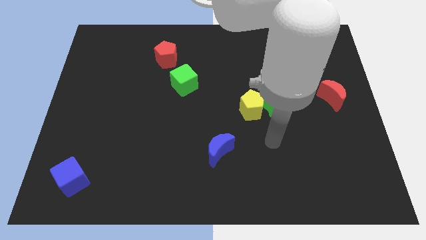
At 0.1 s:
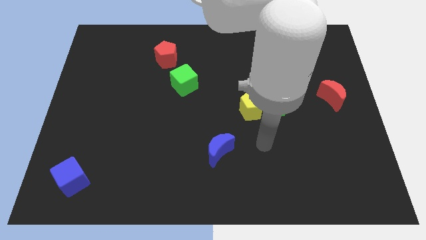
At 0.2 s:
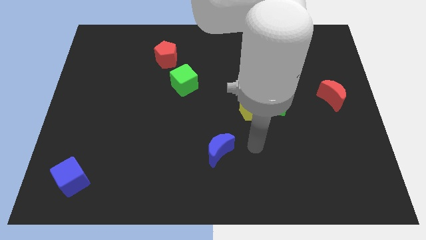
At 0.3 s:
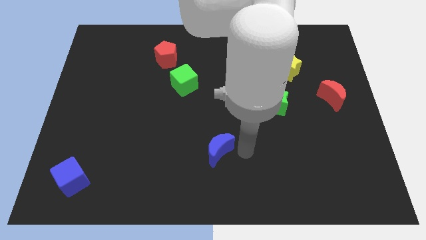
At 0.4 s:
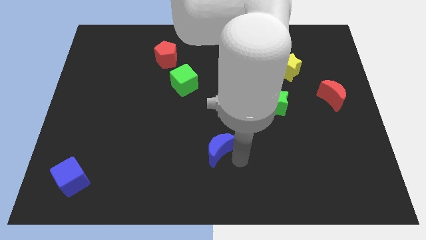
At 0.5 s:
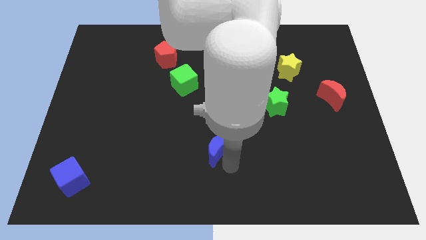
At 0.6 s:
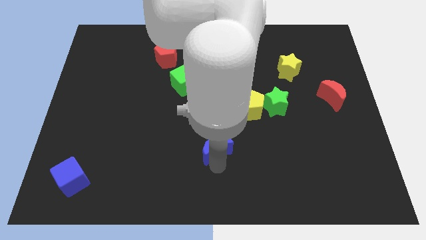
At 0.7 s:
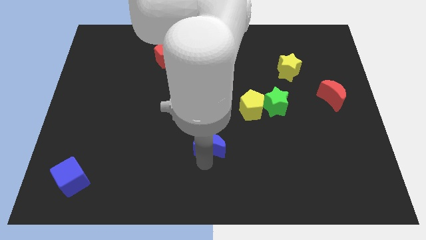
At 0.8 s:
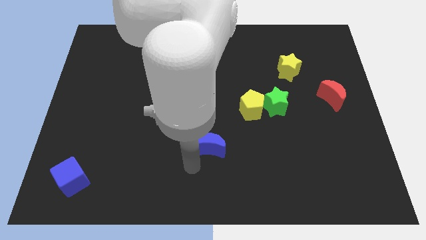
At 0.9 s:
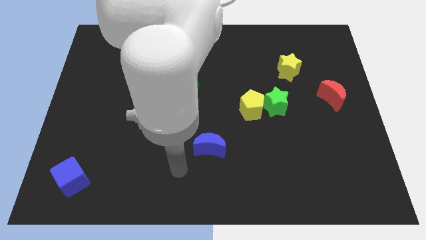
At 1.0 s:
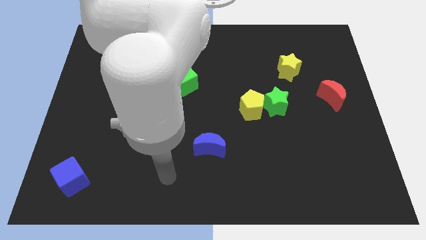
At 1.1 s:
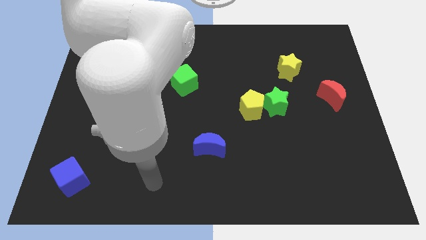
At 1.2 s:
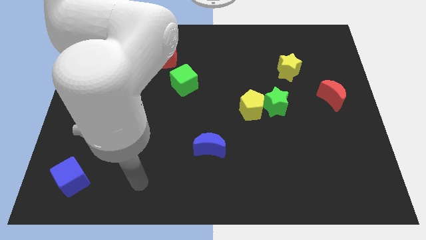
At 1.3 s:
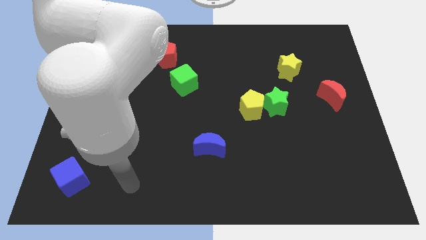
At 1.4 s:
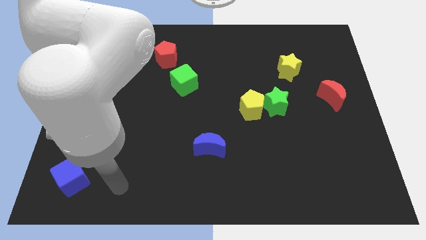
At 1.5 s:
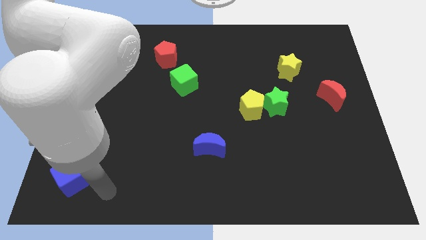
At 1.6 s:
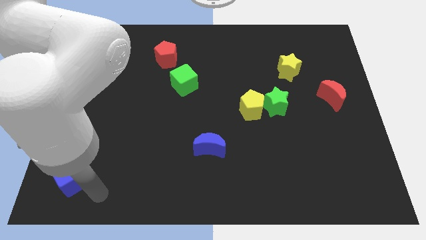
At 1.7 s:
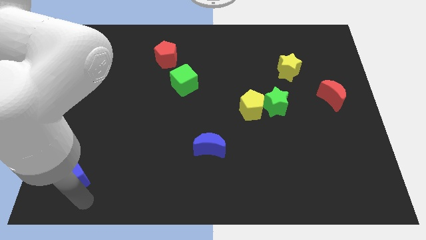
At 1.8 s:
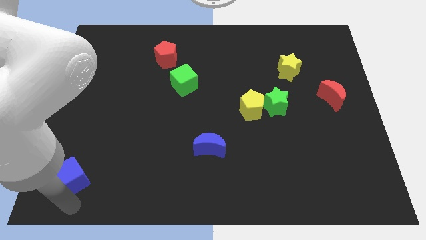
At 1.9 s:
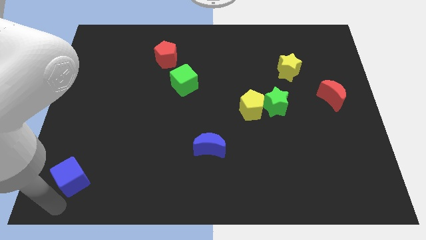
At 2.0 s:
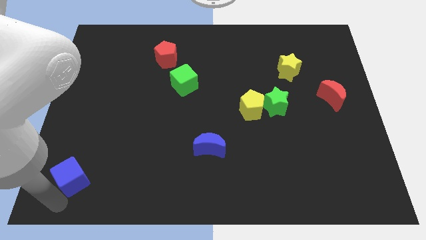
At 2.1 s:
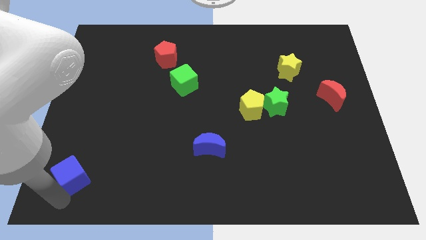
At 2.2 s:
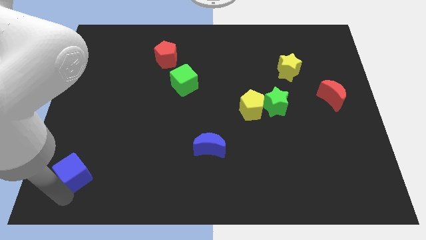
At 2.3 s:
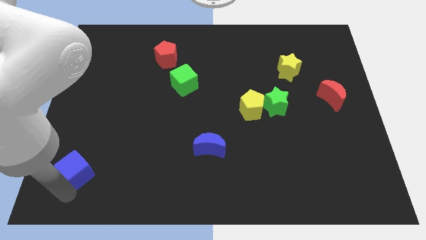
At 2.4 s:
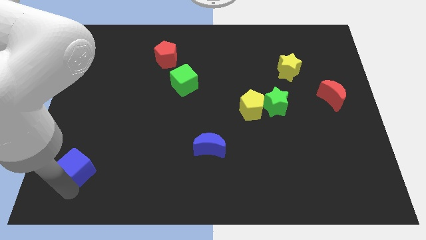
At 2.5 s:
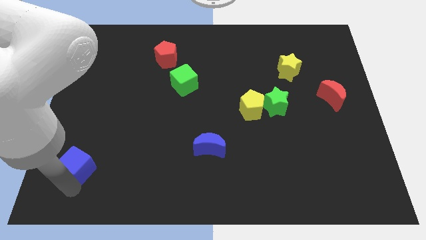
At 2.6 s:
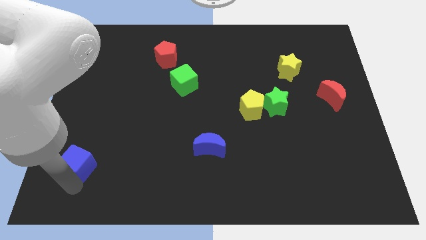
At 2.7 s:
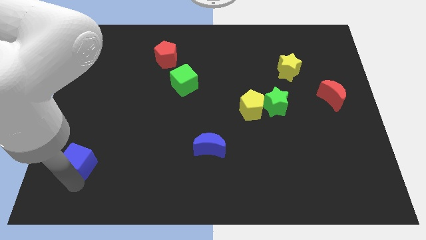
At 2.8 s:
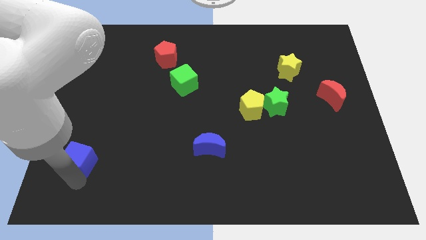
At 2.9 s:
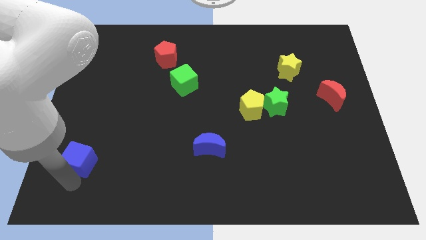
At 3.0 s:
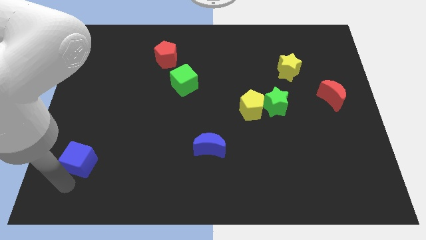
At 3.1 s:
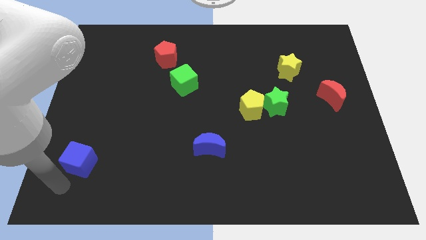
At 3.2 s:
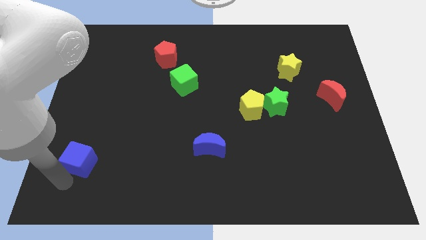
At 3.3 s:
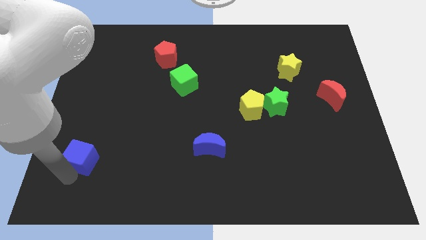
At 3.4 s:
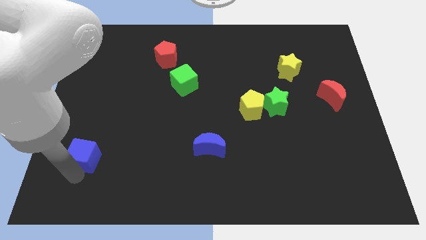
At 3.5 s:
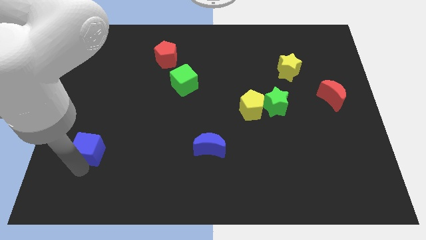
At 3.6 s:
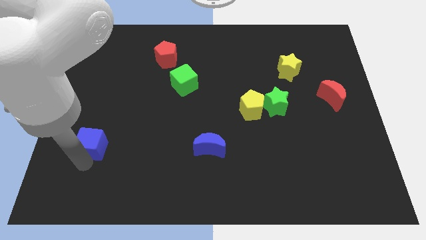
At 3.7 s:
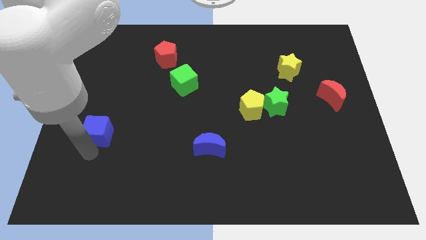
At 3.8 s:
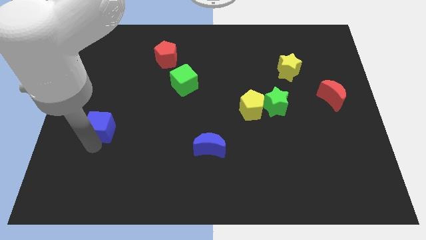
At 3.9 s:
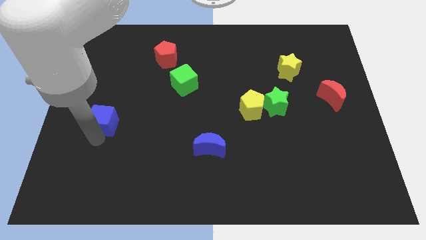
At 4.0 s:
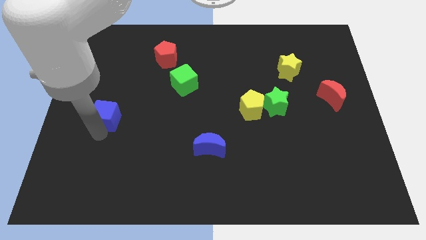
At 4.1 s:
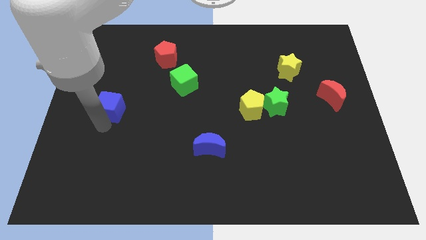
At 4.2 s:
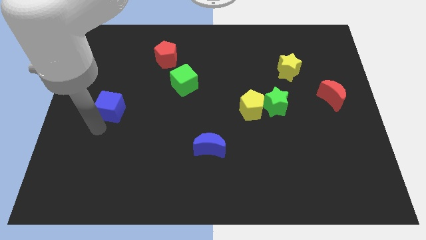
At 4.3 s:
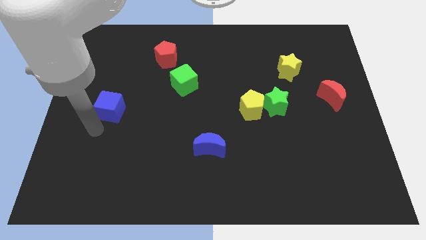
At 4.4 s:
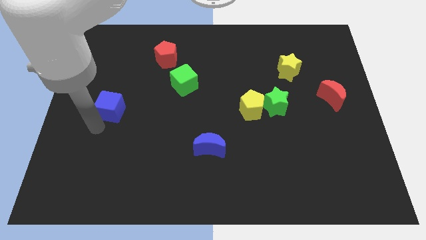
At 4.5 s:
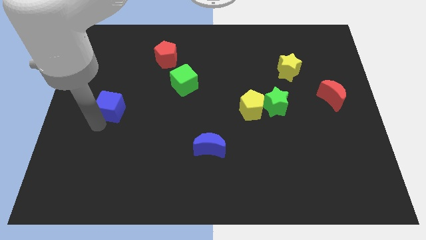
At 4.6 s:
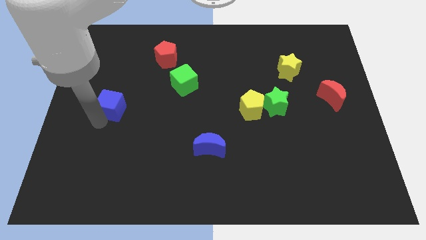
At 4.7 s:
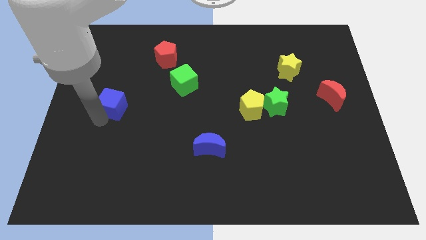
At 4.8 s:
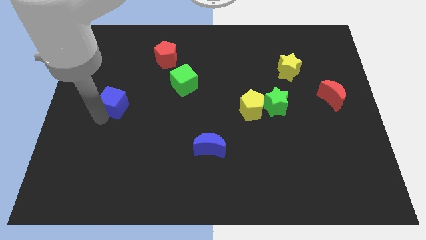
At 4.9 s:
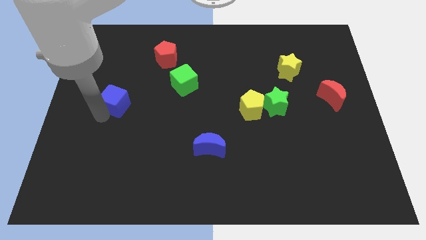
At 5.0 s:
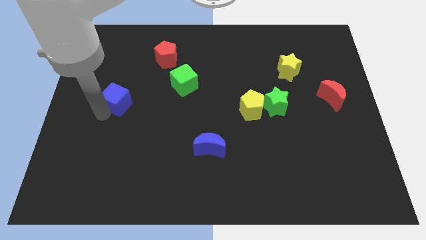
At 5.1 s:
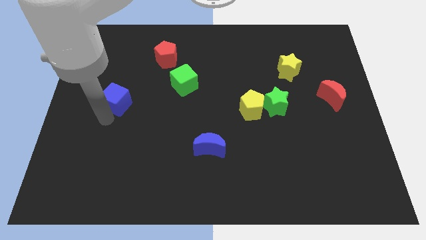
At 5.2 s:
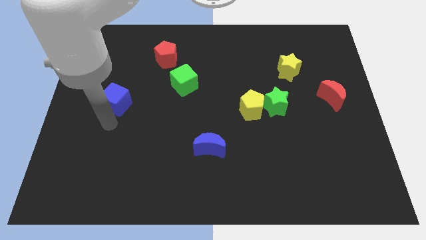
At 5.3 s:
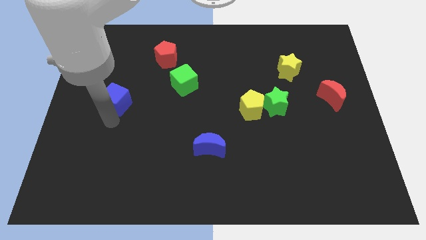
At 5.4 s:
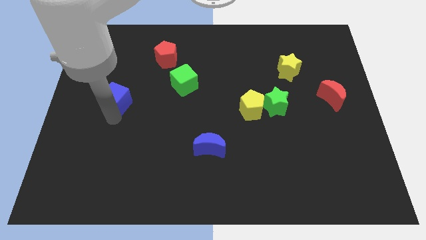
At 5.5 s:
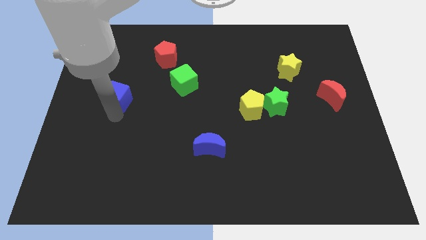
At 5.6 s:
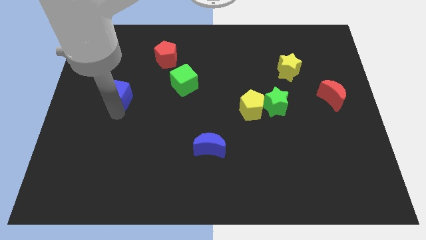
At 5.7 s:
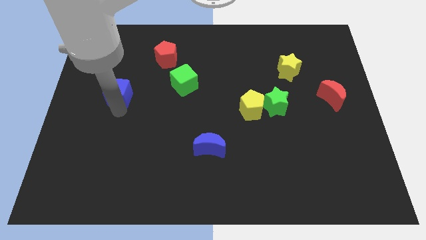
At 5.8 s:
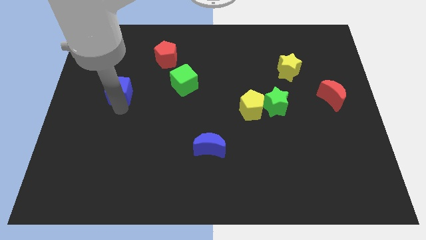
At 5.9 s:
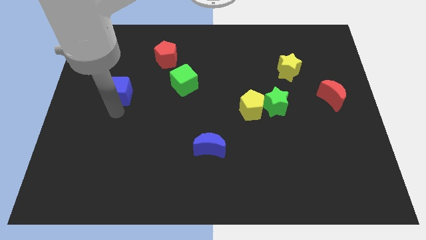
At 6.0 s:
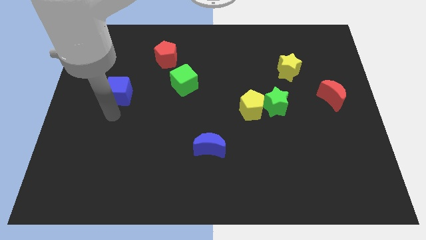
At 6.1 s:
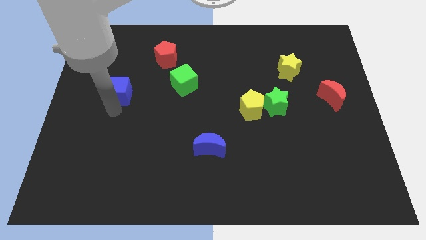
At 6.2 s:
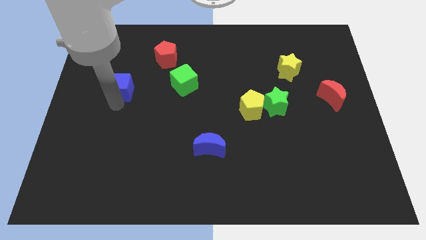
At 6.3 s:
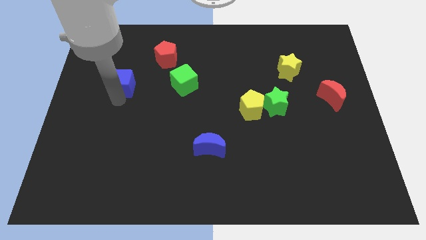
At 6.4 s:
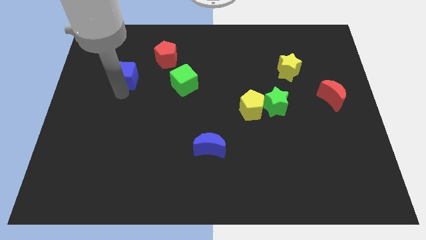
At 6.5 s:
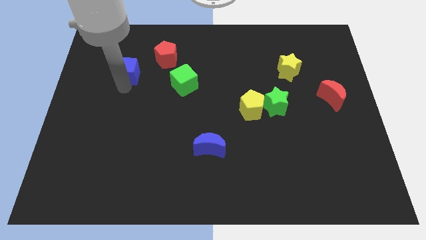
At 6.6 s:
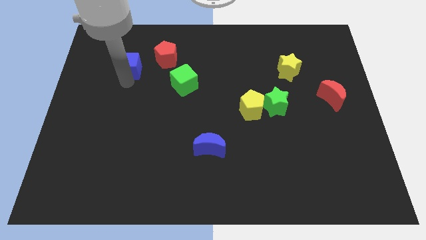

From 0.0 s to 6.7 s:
push the blue cube left of the red pentagon
